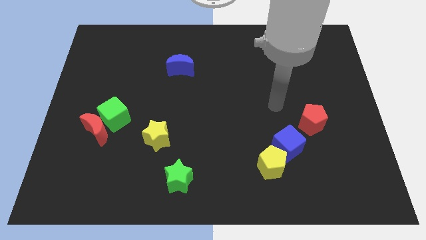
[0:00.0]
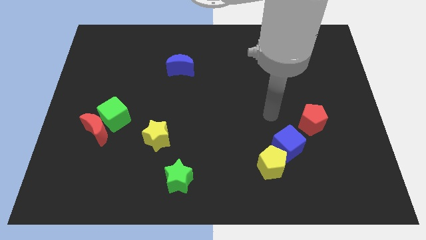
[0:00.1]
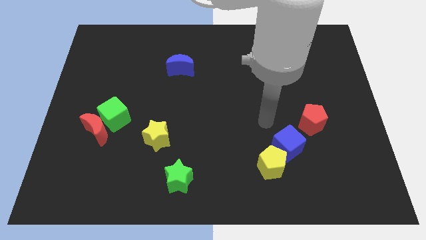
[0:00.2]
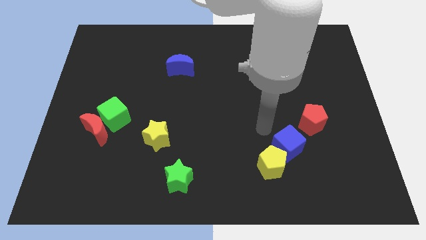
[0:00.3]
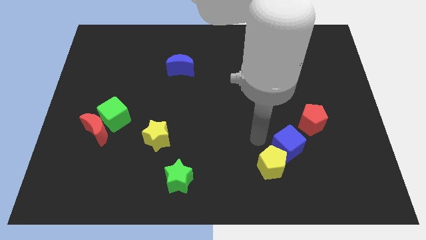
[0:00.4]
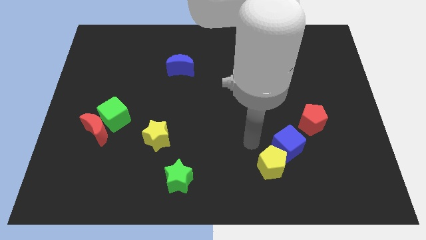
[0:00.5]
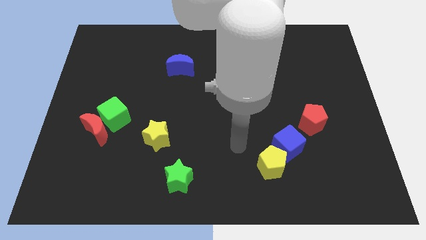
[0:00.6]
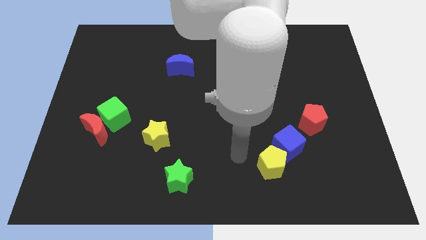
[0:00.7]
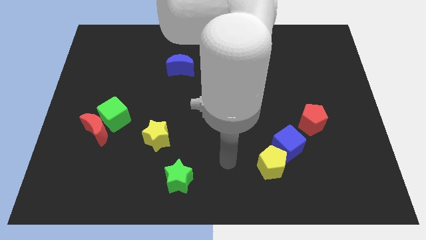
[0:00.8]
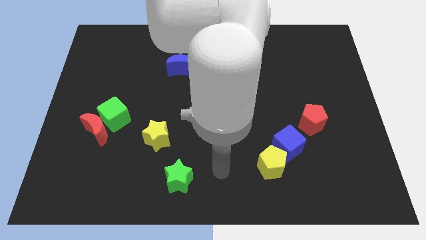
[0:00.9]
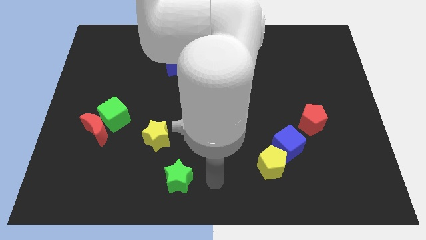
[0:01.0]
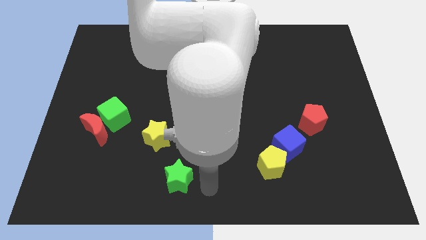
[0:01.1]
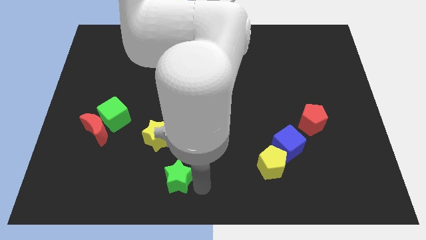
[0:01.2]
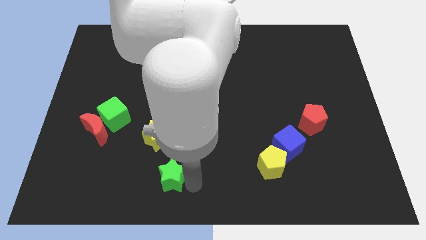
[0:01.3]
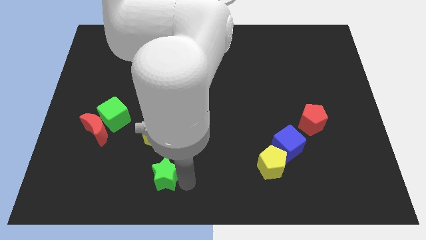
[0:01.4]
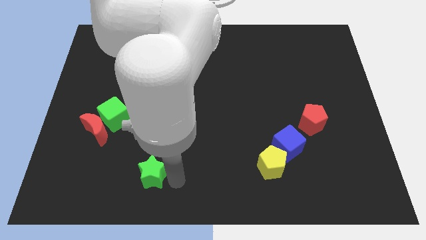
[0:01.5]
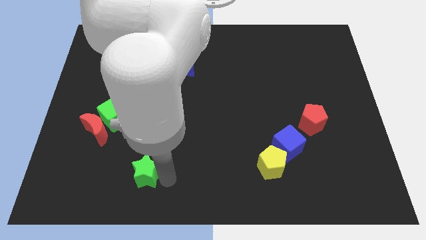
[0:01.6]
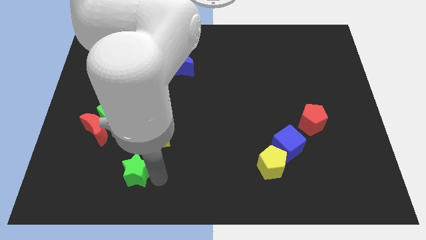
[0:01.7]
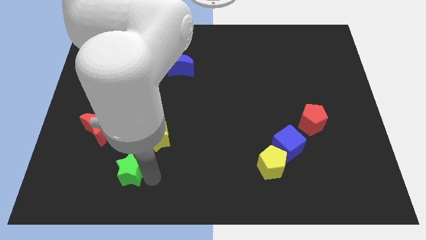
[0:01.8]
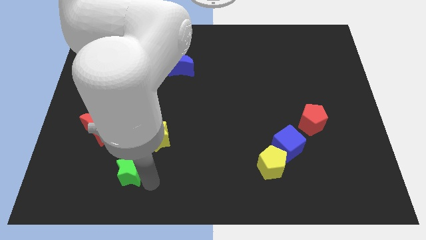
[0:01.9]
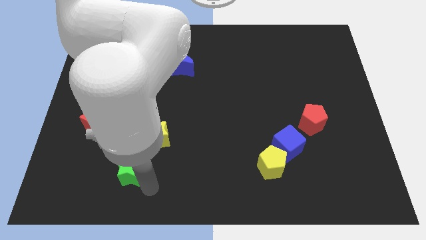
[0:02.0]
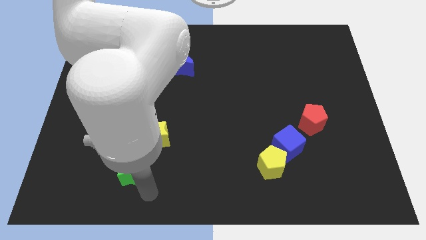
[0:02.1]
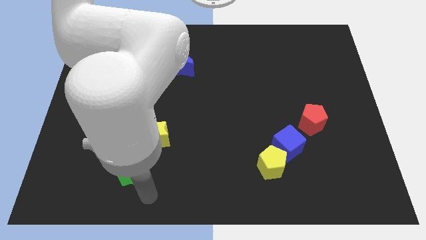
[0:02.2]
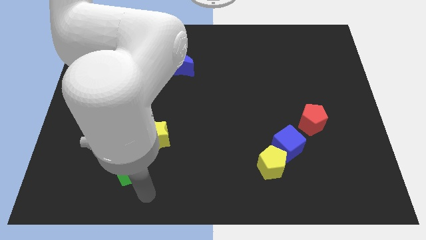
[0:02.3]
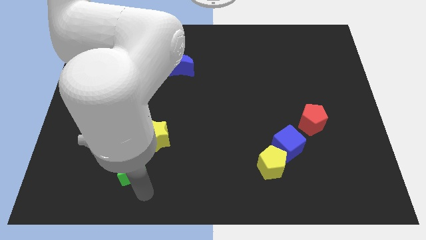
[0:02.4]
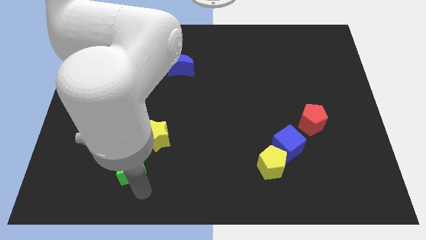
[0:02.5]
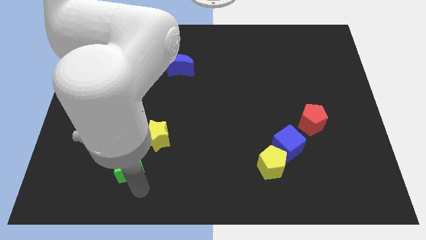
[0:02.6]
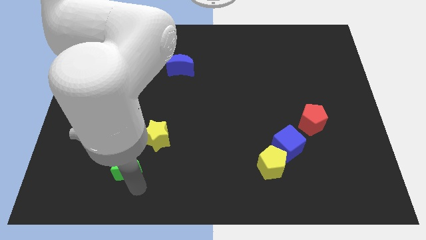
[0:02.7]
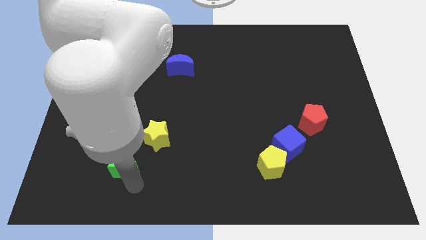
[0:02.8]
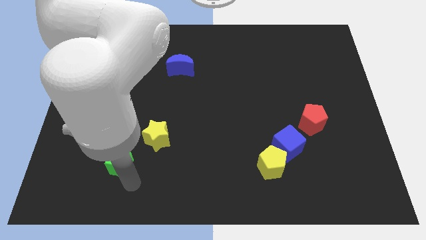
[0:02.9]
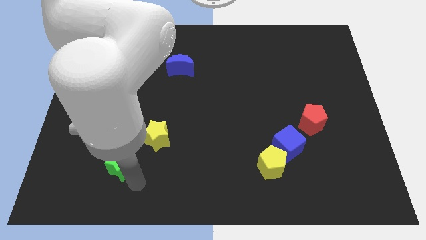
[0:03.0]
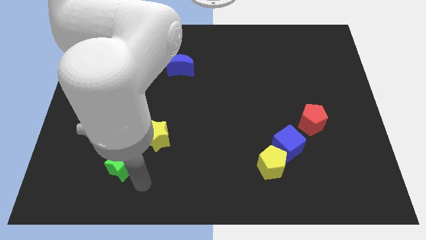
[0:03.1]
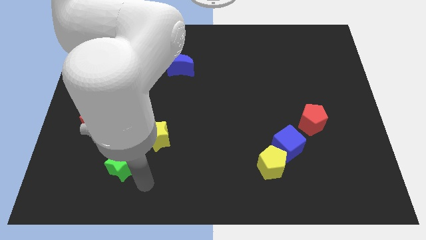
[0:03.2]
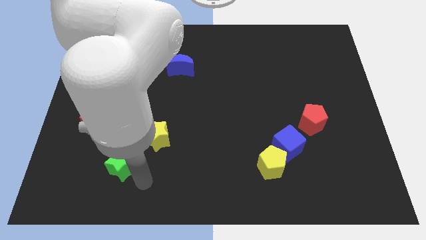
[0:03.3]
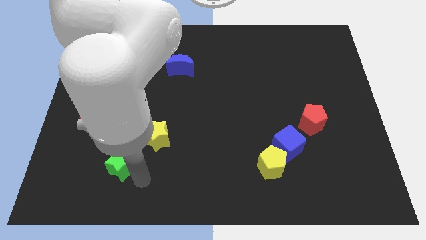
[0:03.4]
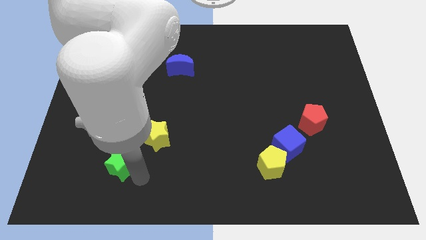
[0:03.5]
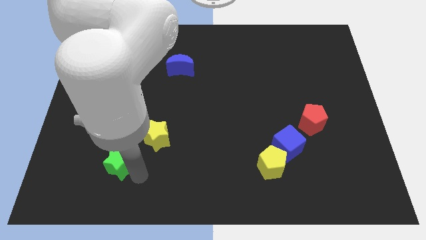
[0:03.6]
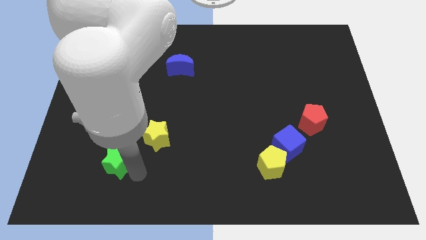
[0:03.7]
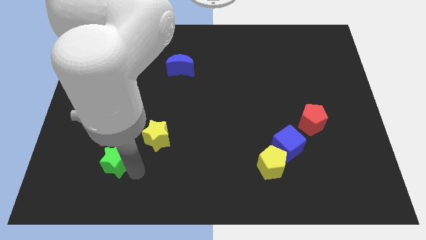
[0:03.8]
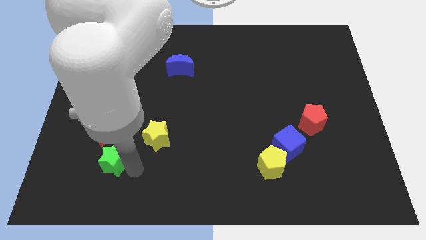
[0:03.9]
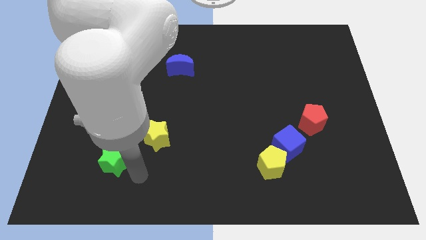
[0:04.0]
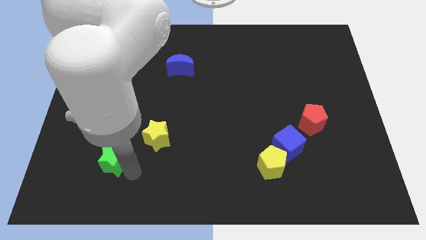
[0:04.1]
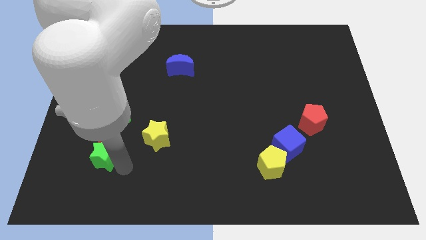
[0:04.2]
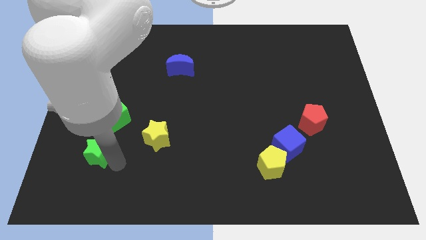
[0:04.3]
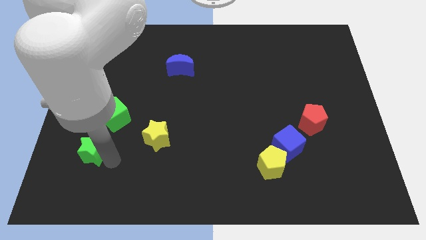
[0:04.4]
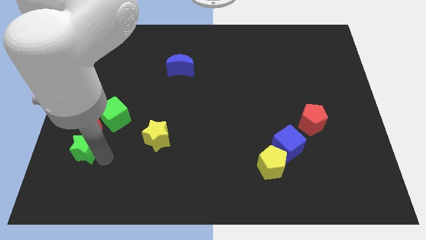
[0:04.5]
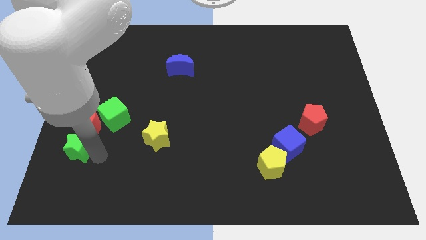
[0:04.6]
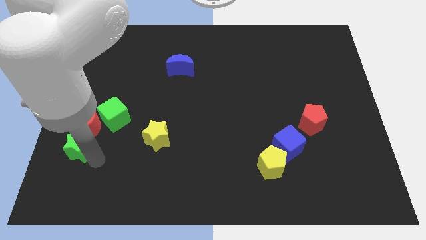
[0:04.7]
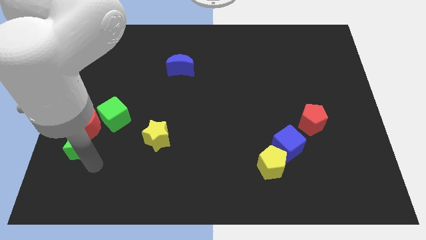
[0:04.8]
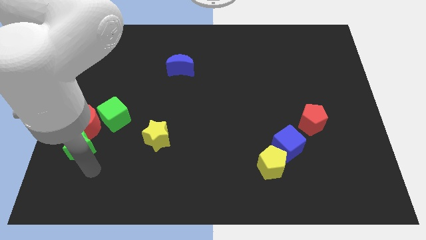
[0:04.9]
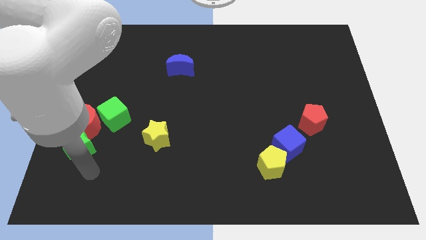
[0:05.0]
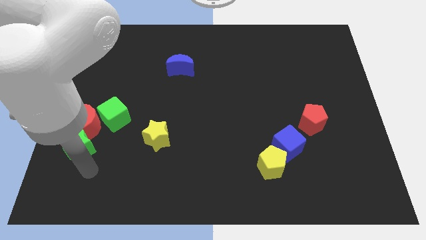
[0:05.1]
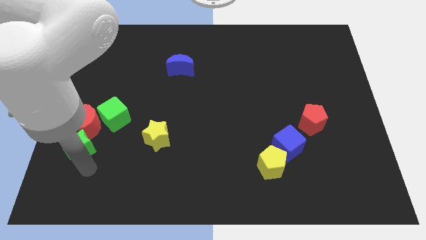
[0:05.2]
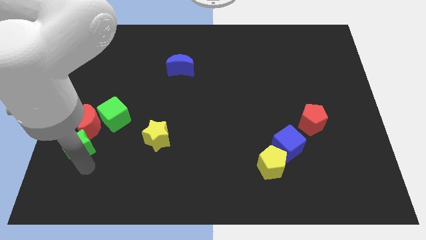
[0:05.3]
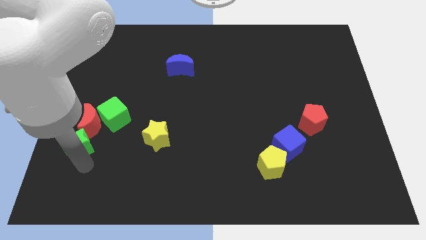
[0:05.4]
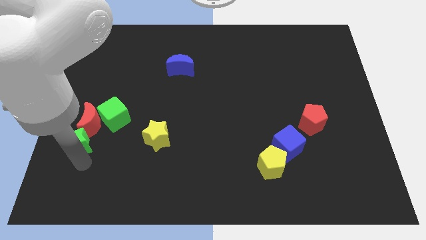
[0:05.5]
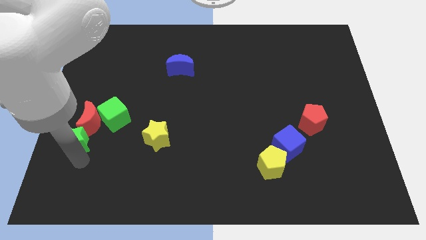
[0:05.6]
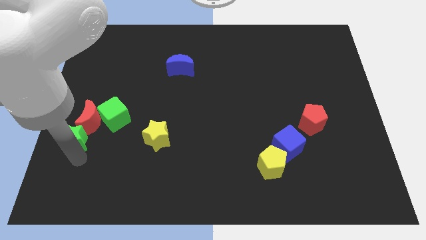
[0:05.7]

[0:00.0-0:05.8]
put the green star to the left side

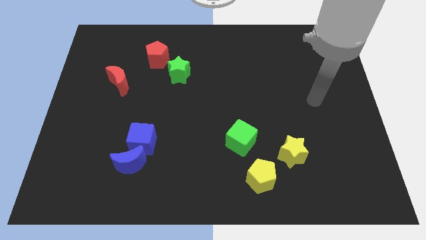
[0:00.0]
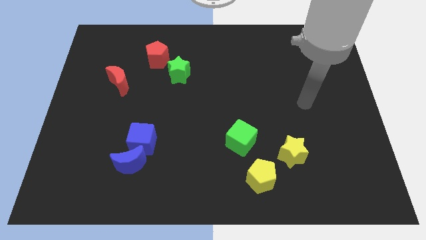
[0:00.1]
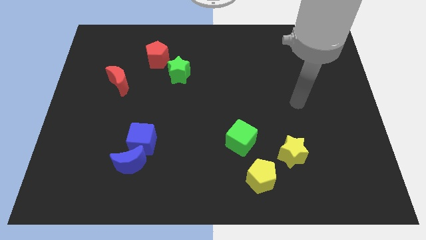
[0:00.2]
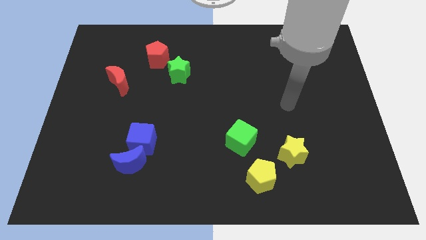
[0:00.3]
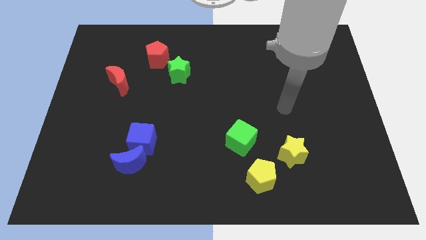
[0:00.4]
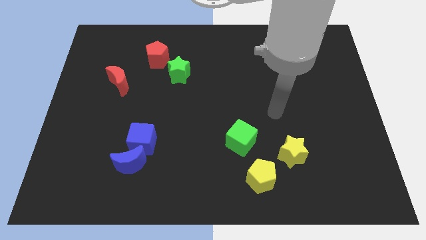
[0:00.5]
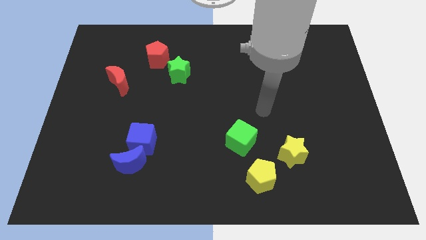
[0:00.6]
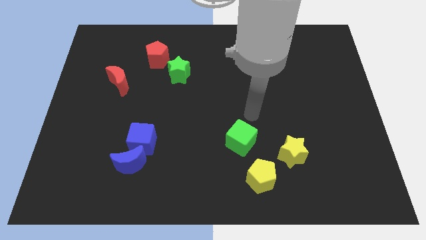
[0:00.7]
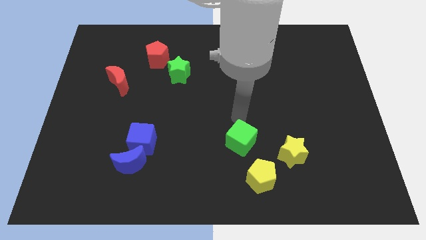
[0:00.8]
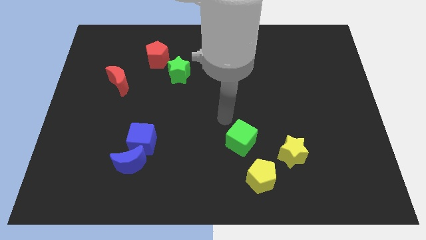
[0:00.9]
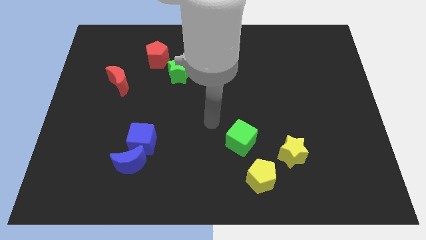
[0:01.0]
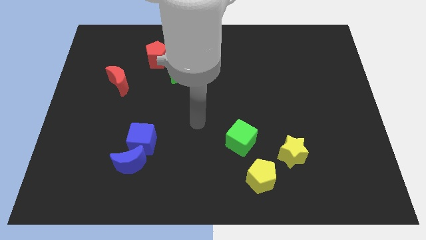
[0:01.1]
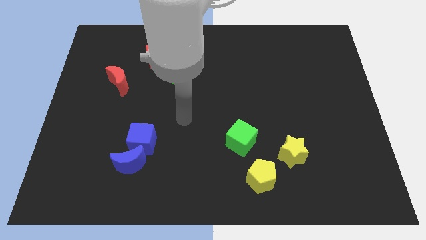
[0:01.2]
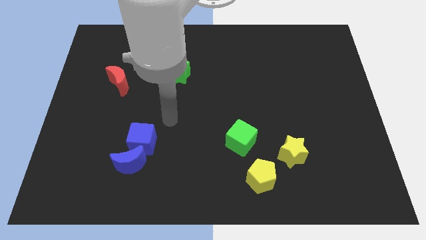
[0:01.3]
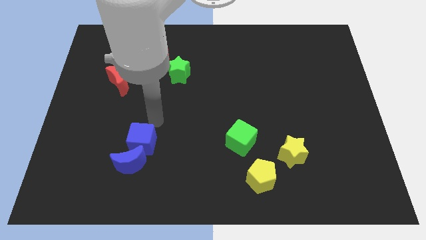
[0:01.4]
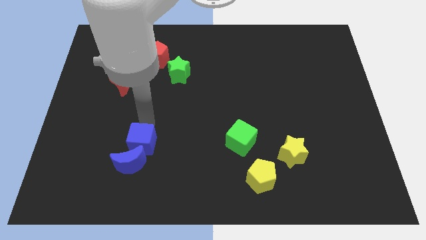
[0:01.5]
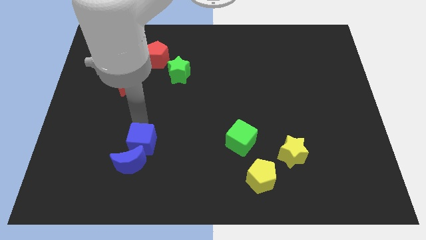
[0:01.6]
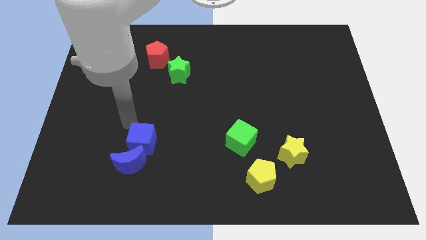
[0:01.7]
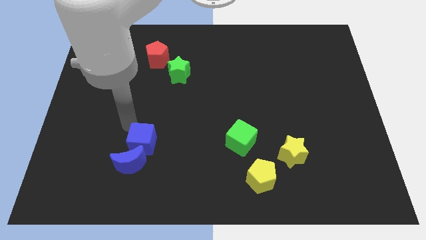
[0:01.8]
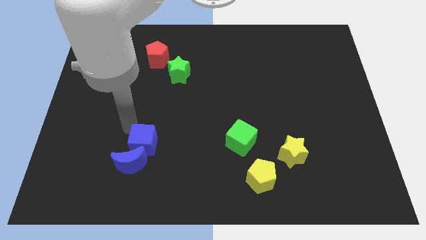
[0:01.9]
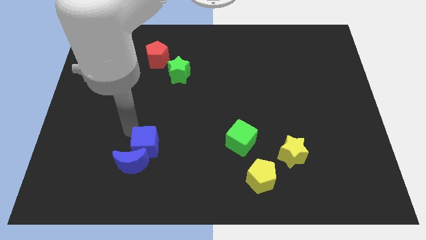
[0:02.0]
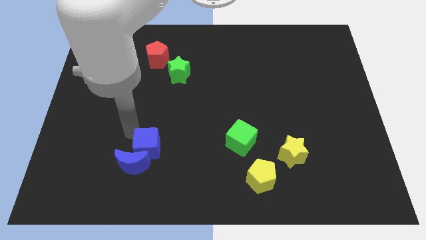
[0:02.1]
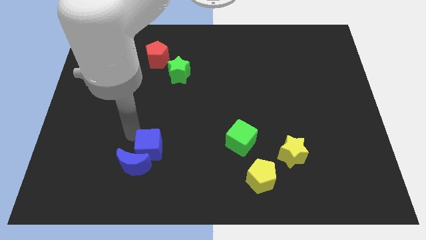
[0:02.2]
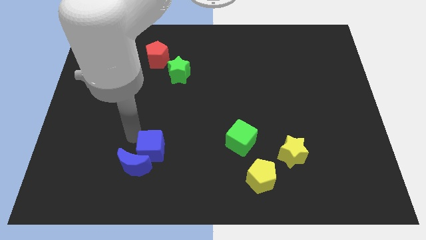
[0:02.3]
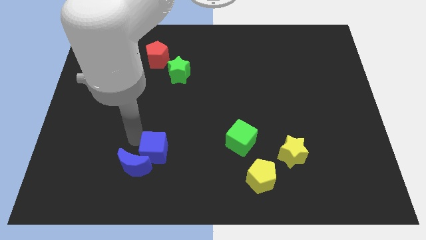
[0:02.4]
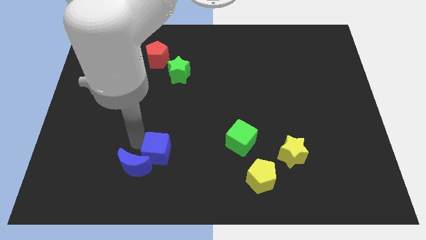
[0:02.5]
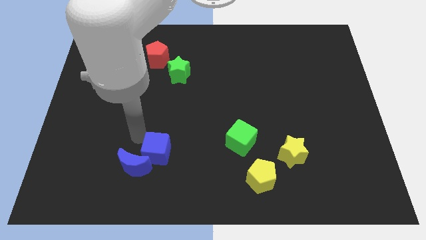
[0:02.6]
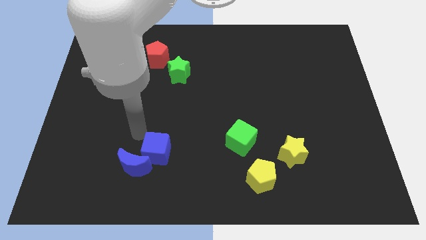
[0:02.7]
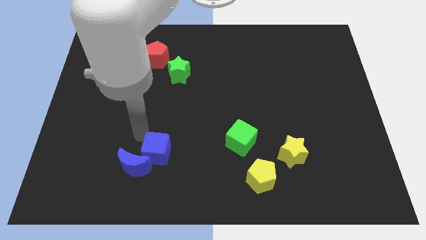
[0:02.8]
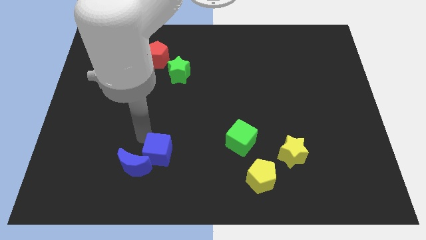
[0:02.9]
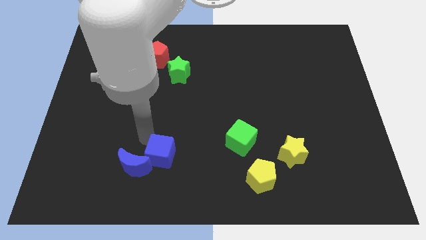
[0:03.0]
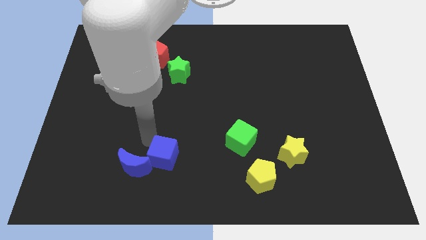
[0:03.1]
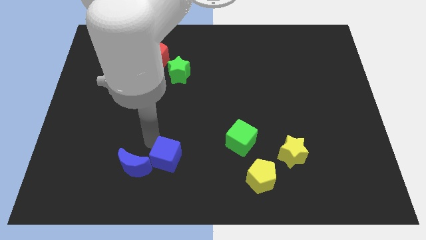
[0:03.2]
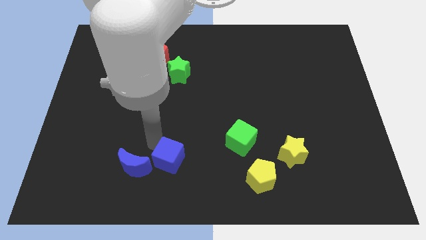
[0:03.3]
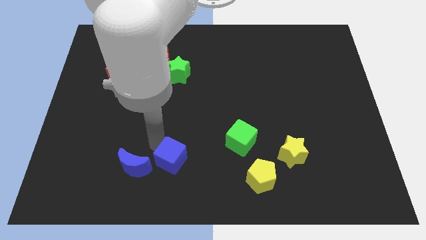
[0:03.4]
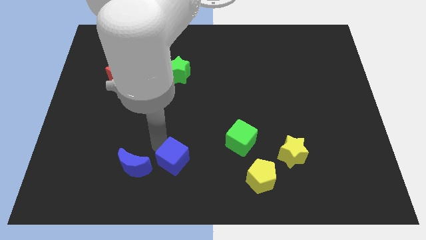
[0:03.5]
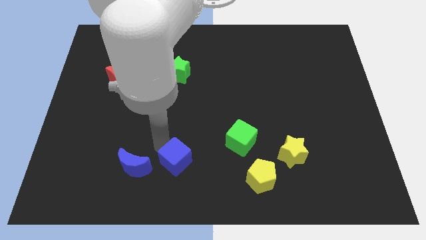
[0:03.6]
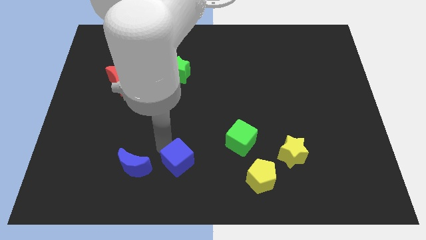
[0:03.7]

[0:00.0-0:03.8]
move the blue cube to the bottom
